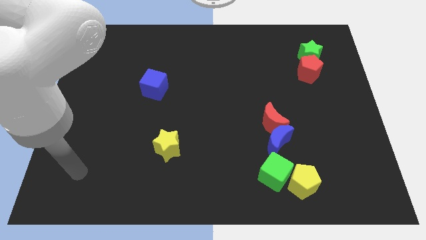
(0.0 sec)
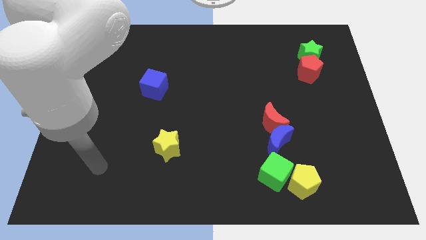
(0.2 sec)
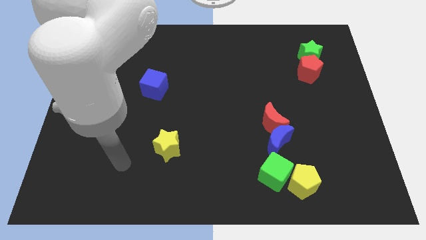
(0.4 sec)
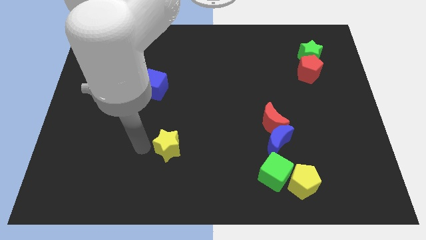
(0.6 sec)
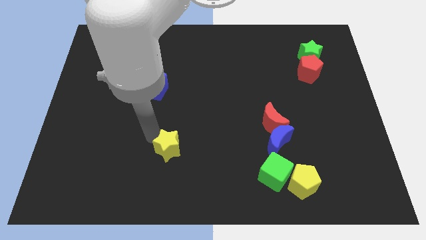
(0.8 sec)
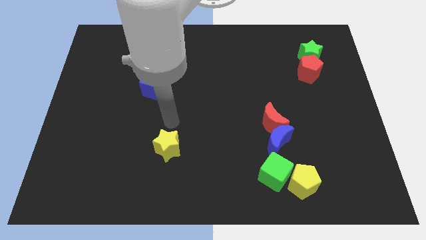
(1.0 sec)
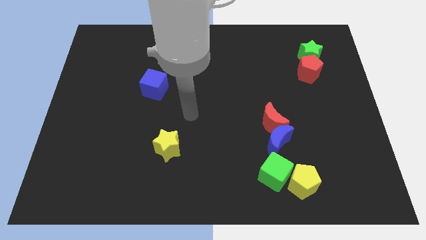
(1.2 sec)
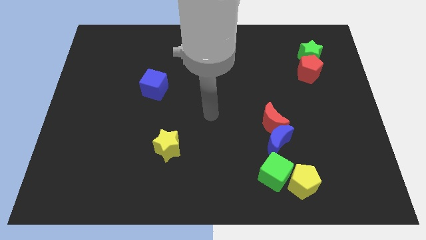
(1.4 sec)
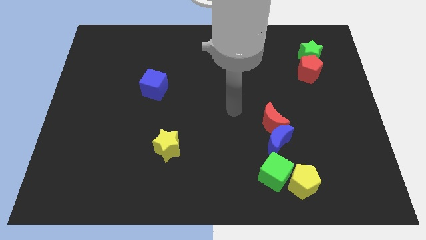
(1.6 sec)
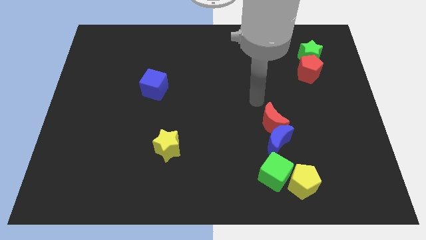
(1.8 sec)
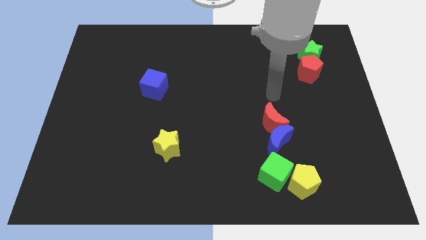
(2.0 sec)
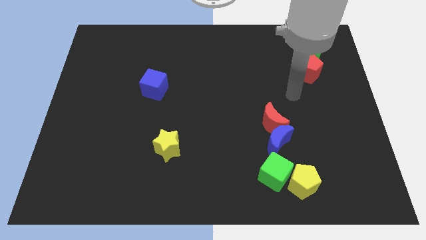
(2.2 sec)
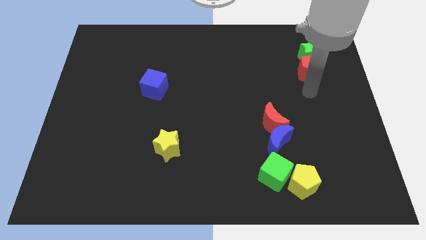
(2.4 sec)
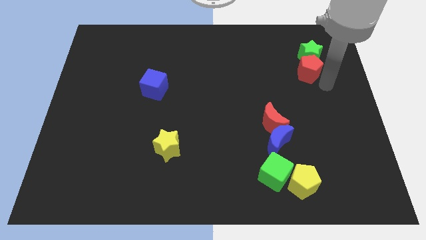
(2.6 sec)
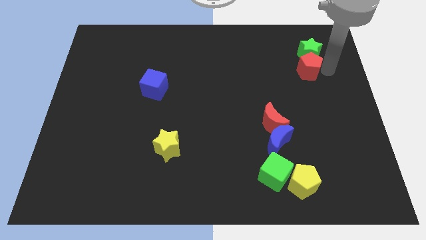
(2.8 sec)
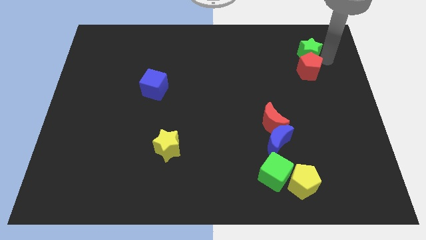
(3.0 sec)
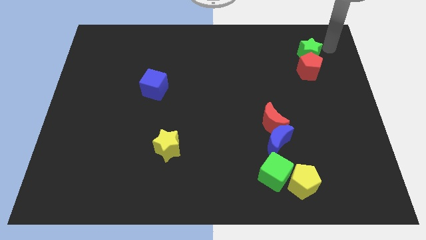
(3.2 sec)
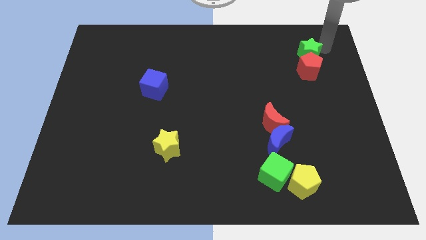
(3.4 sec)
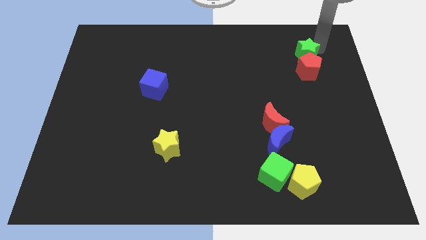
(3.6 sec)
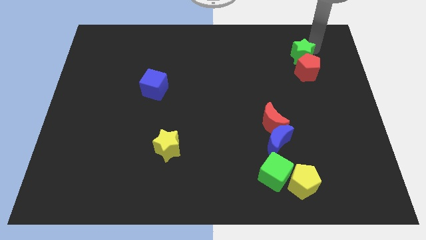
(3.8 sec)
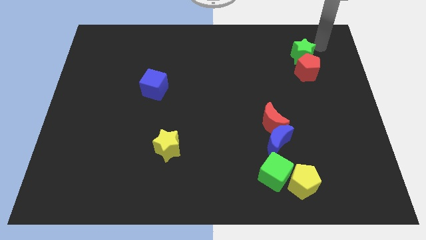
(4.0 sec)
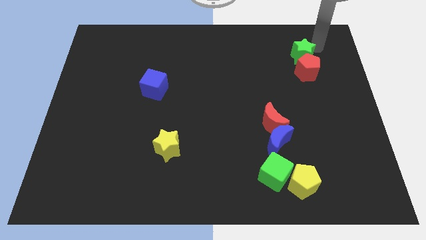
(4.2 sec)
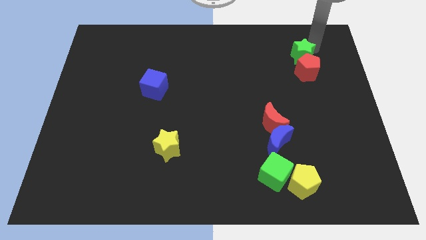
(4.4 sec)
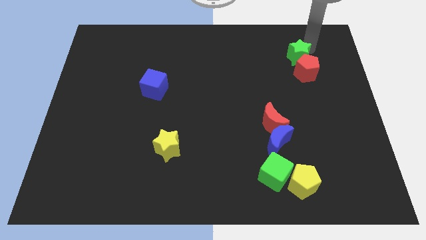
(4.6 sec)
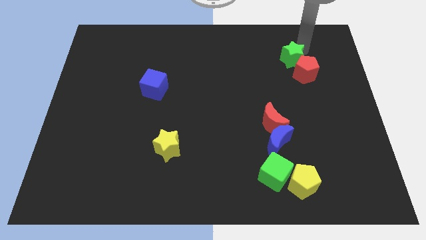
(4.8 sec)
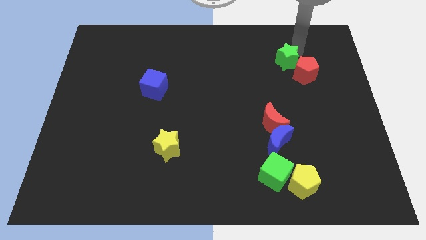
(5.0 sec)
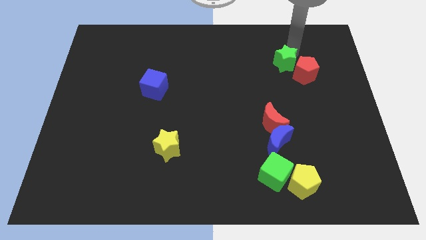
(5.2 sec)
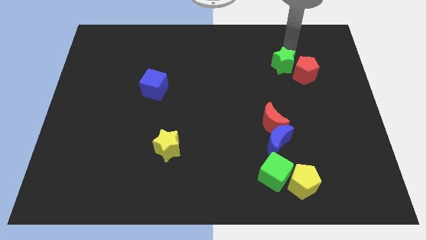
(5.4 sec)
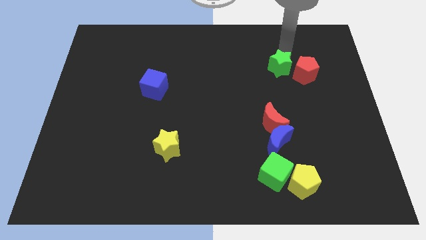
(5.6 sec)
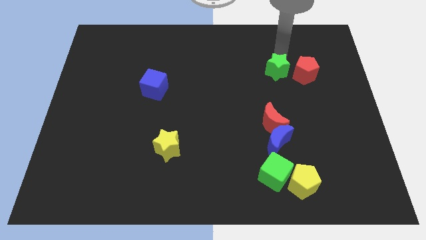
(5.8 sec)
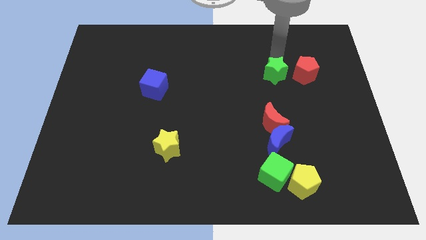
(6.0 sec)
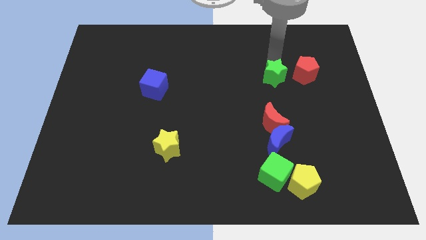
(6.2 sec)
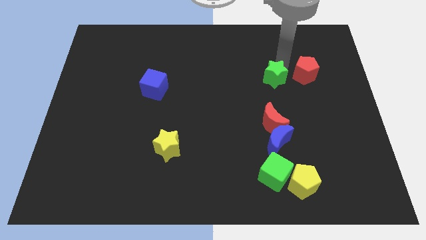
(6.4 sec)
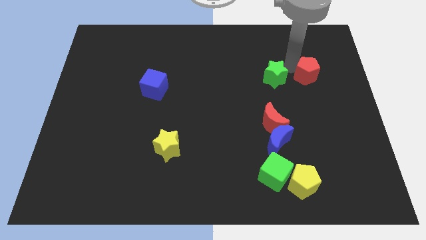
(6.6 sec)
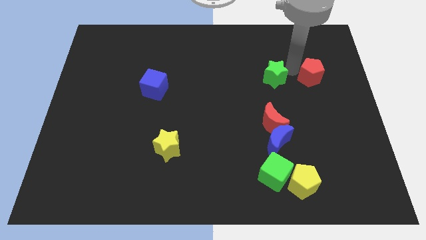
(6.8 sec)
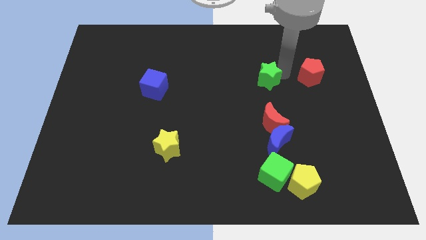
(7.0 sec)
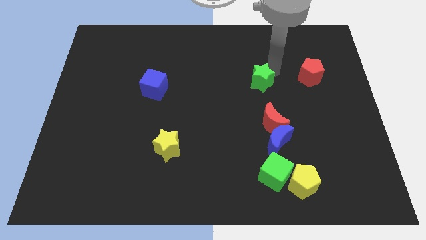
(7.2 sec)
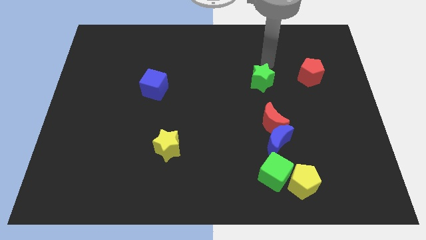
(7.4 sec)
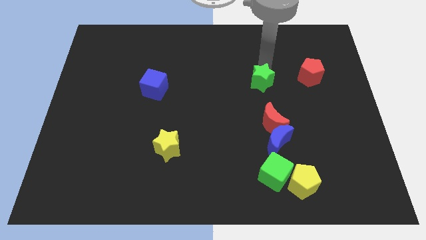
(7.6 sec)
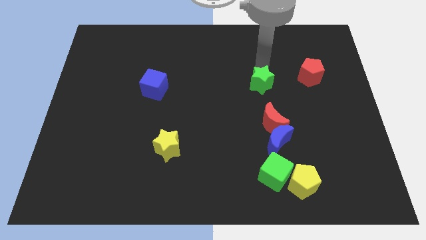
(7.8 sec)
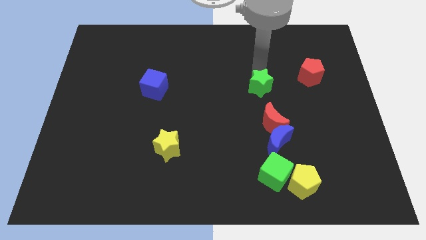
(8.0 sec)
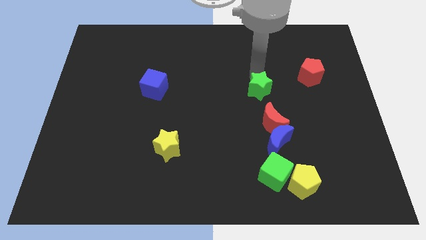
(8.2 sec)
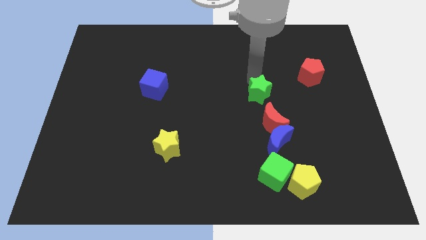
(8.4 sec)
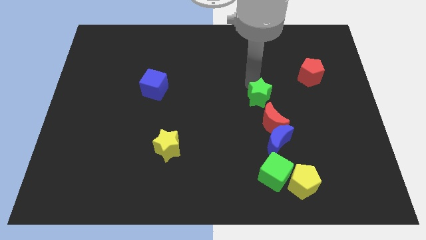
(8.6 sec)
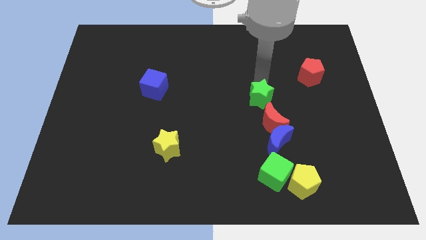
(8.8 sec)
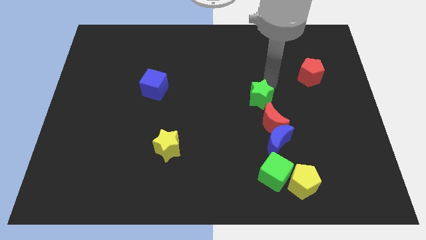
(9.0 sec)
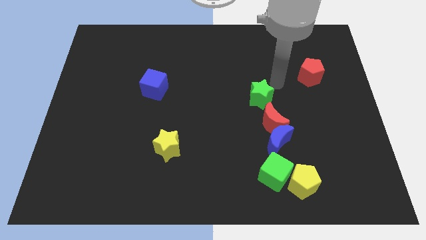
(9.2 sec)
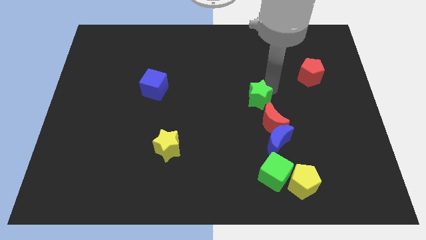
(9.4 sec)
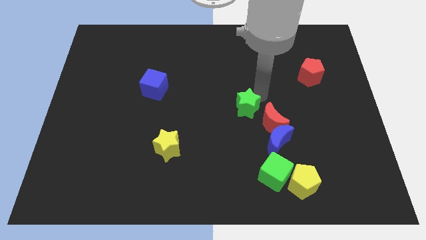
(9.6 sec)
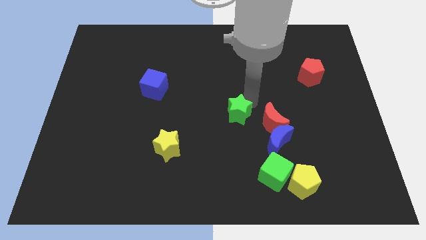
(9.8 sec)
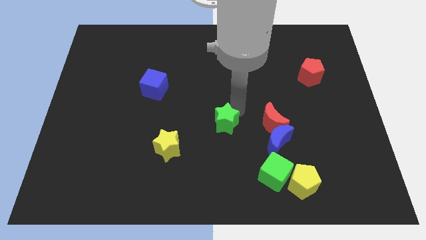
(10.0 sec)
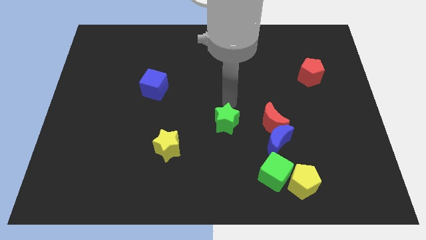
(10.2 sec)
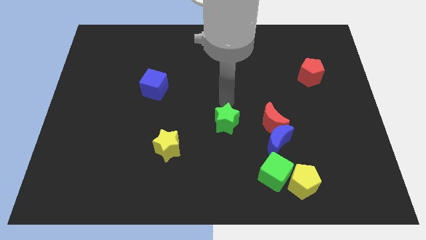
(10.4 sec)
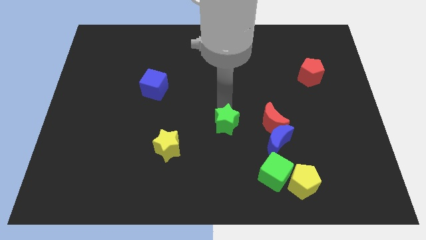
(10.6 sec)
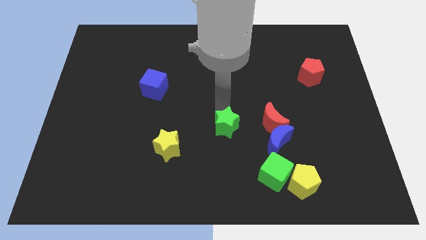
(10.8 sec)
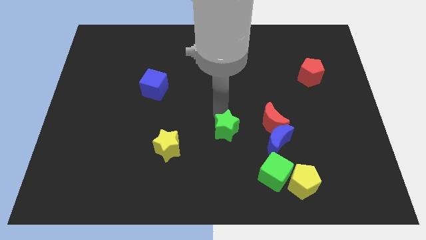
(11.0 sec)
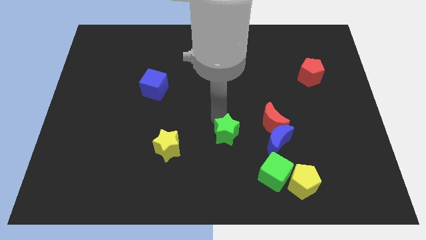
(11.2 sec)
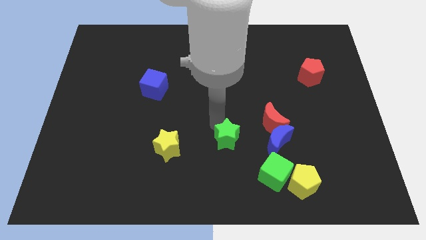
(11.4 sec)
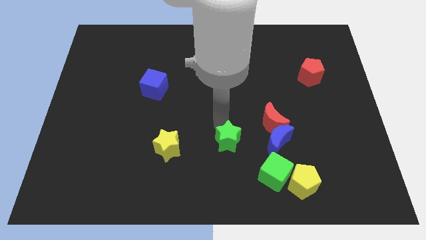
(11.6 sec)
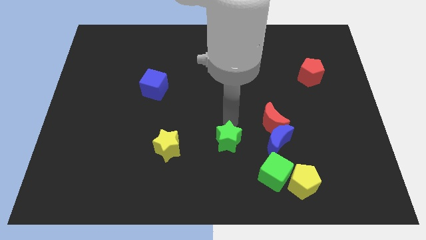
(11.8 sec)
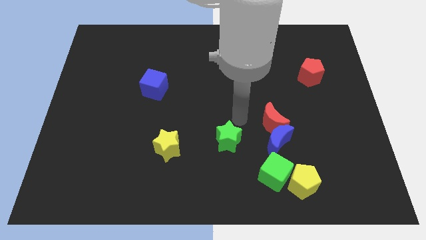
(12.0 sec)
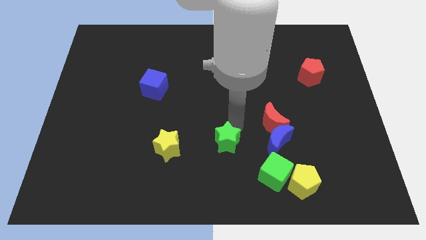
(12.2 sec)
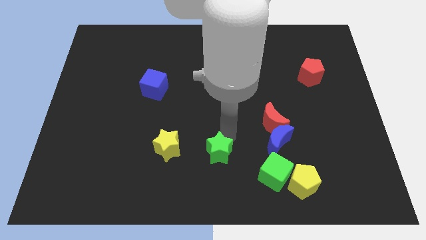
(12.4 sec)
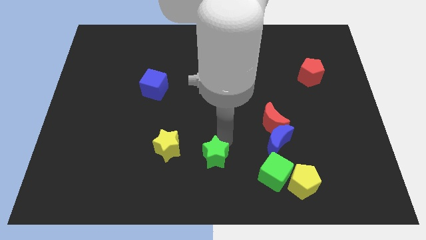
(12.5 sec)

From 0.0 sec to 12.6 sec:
move the green star to the bottom side
